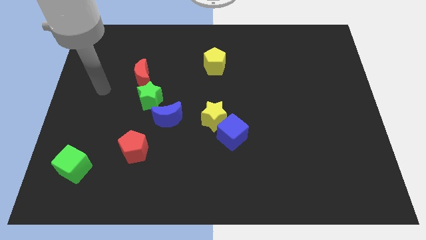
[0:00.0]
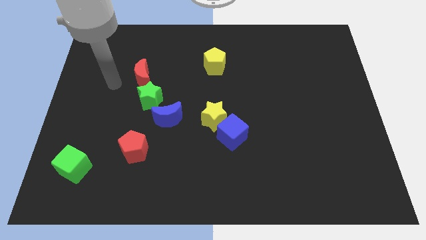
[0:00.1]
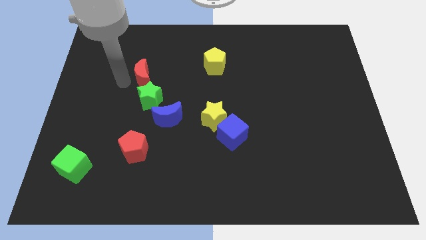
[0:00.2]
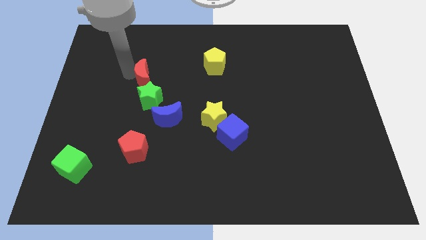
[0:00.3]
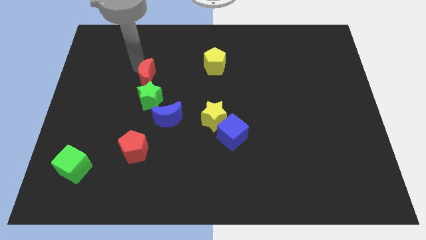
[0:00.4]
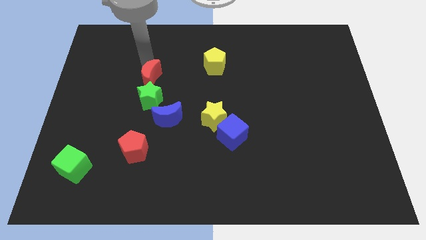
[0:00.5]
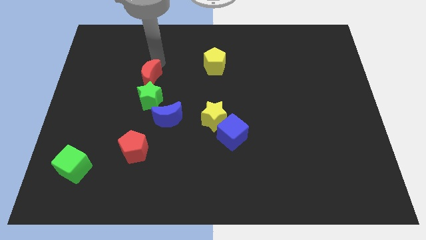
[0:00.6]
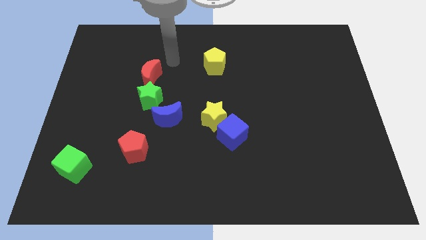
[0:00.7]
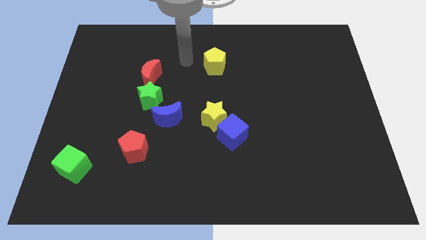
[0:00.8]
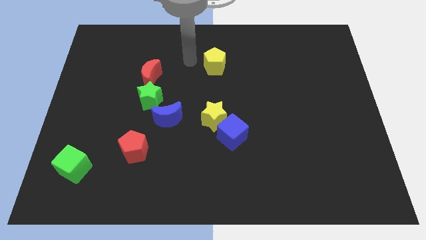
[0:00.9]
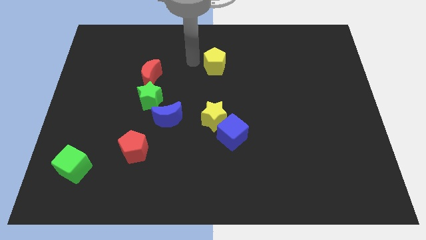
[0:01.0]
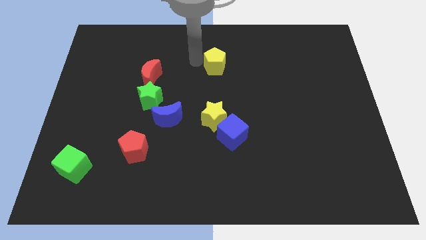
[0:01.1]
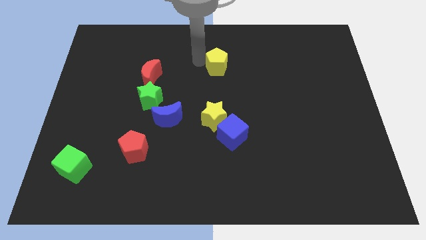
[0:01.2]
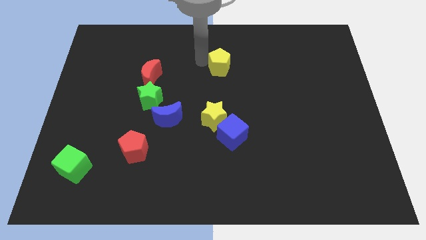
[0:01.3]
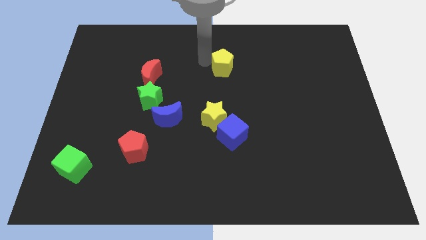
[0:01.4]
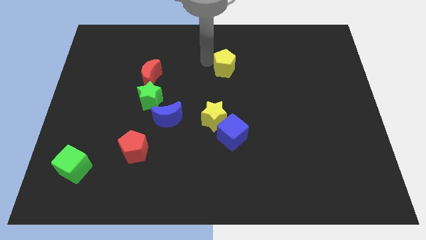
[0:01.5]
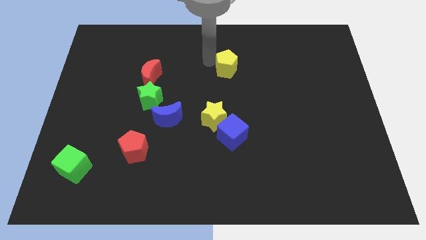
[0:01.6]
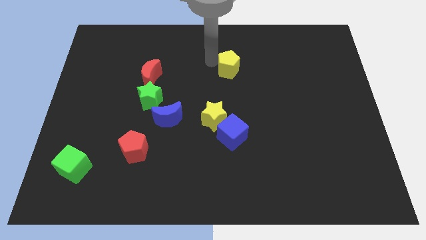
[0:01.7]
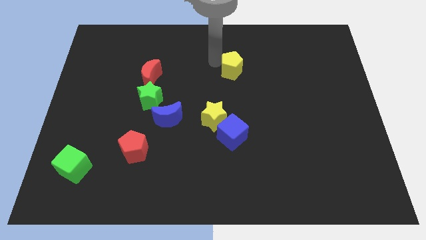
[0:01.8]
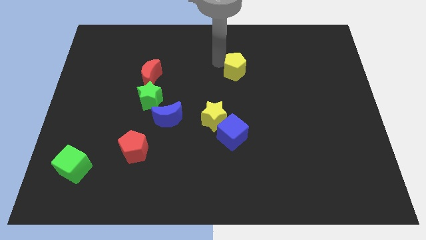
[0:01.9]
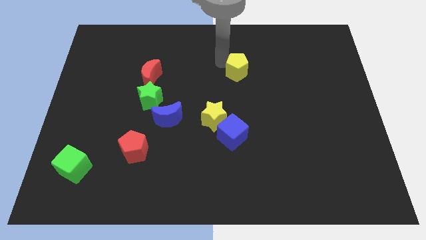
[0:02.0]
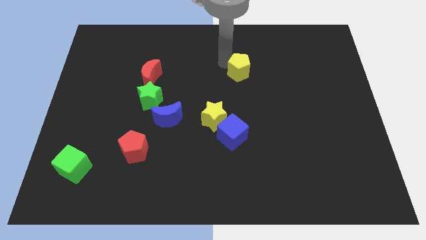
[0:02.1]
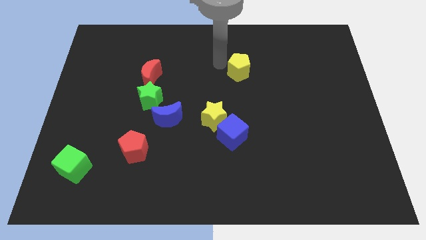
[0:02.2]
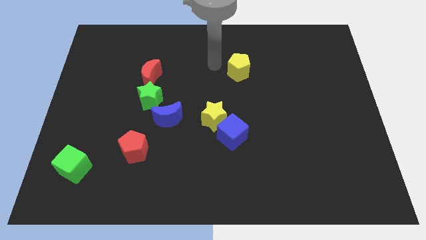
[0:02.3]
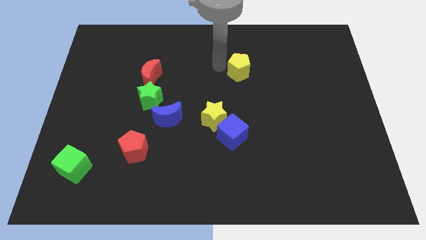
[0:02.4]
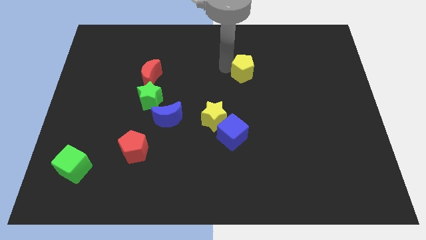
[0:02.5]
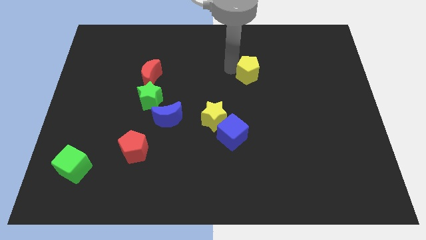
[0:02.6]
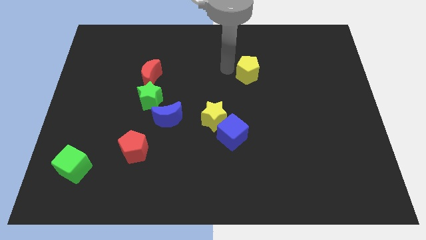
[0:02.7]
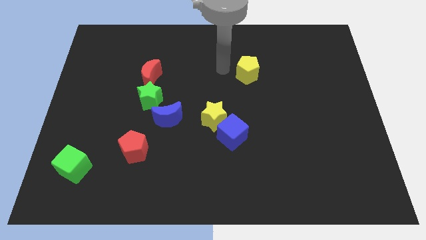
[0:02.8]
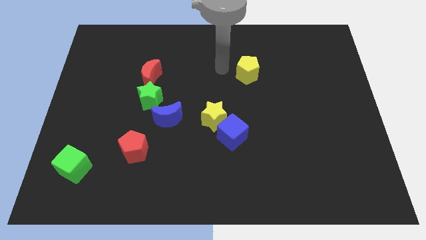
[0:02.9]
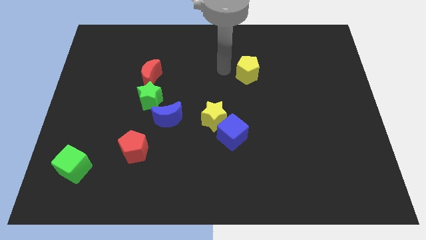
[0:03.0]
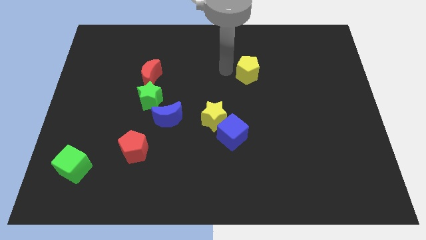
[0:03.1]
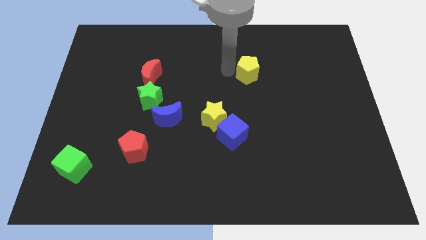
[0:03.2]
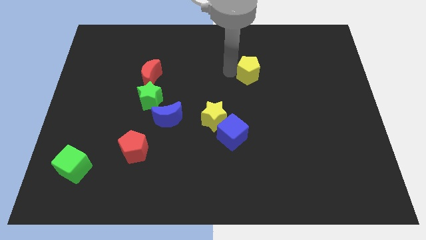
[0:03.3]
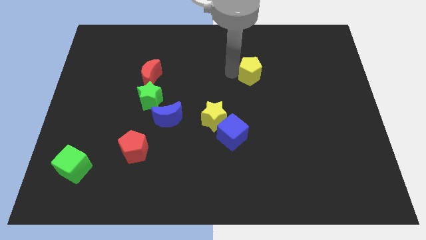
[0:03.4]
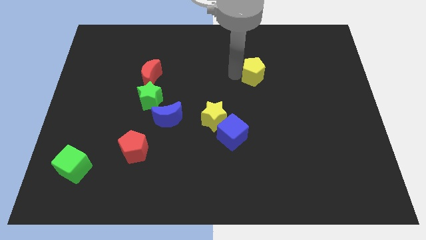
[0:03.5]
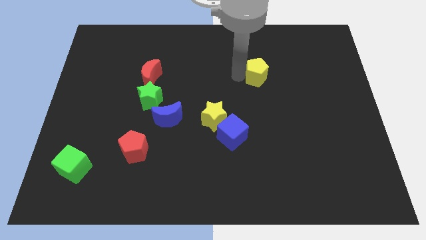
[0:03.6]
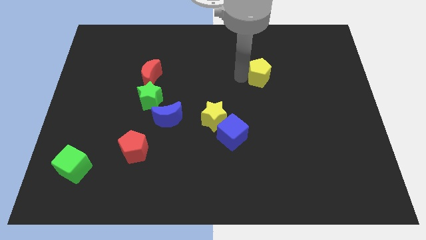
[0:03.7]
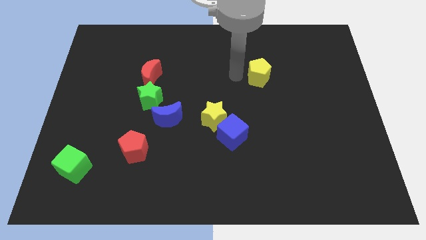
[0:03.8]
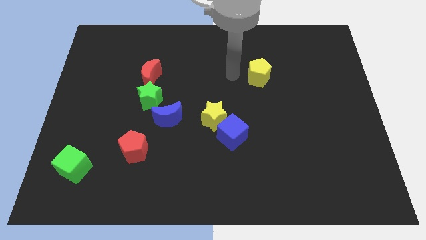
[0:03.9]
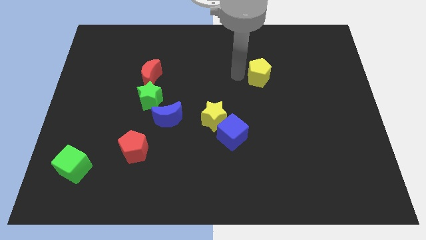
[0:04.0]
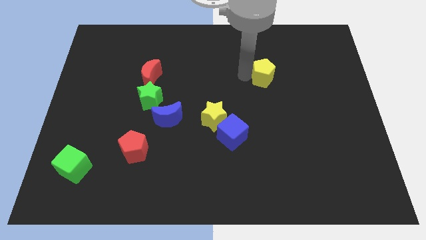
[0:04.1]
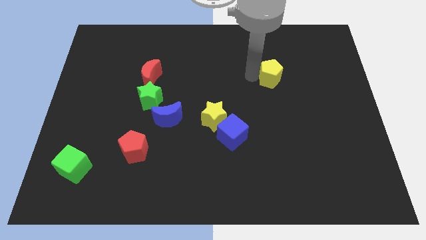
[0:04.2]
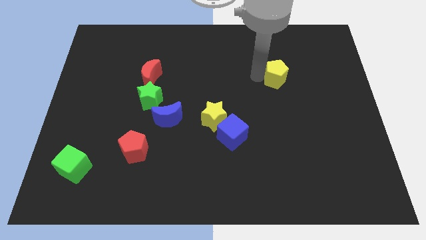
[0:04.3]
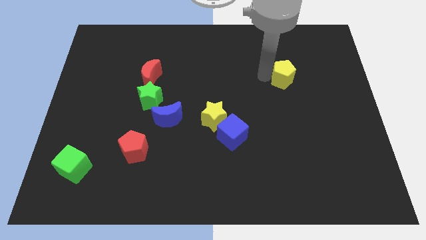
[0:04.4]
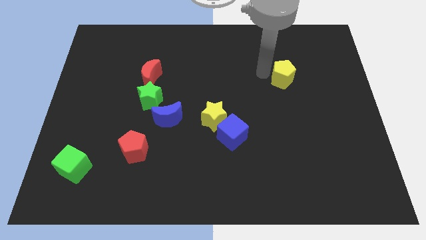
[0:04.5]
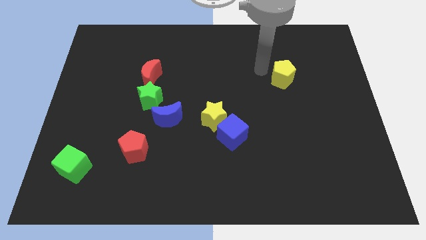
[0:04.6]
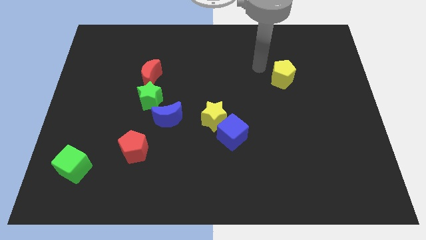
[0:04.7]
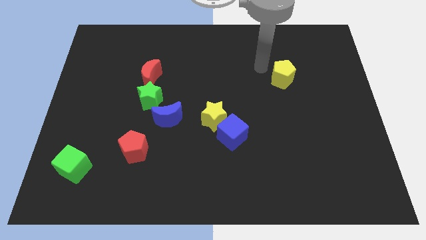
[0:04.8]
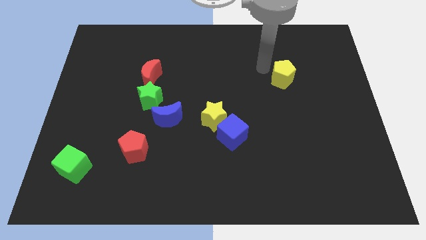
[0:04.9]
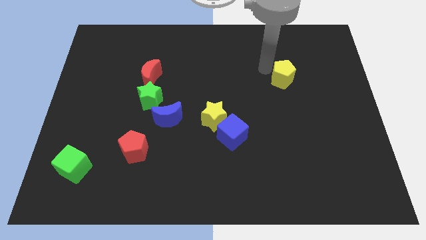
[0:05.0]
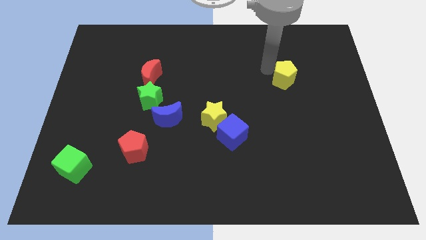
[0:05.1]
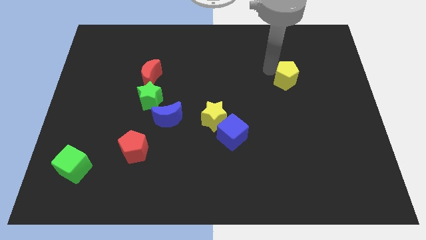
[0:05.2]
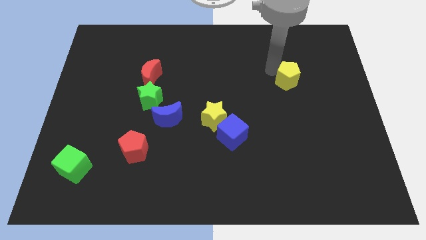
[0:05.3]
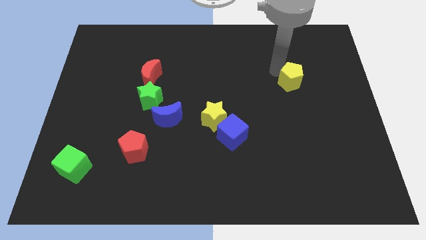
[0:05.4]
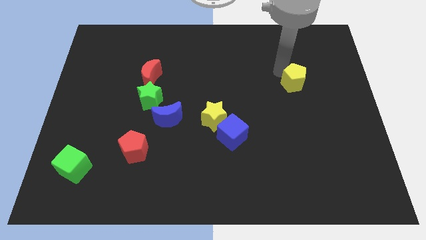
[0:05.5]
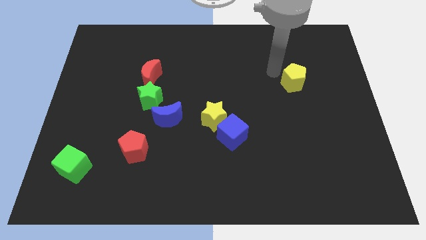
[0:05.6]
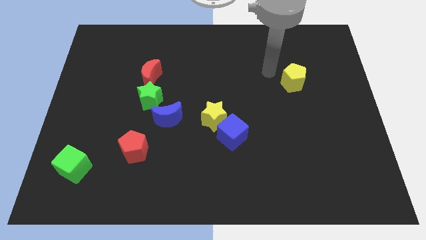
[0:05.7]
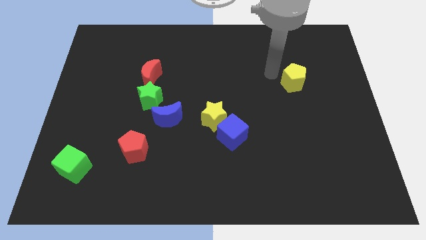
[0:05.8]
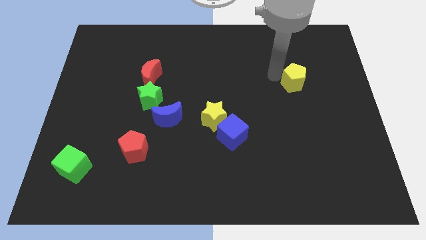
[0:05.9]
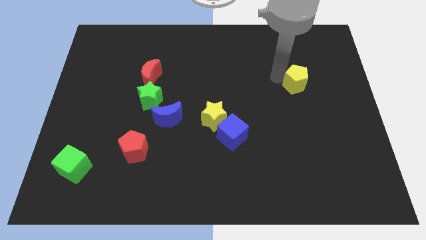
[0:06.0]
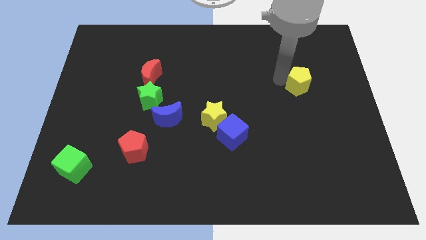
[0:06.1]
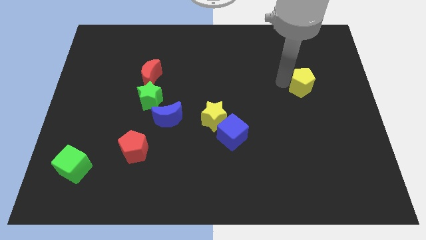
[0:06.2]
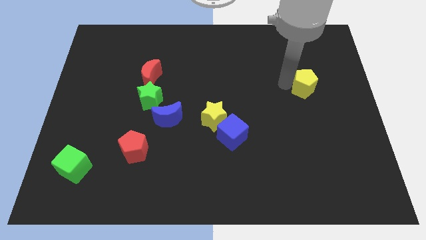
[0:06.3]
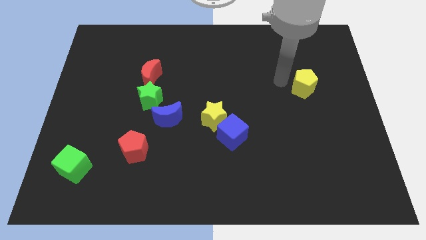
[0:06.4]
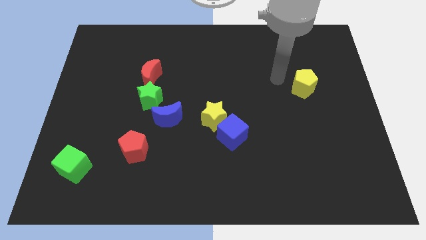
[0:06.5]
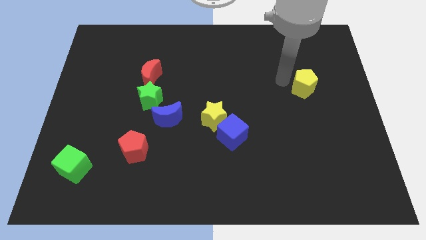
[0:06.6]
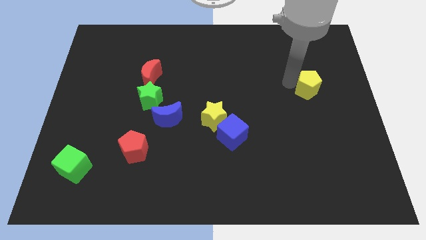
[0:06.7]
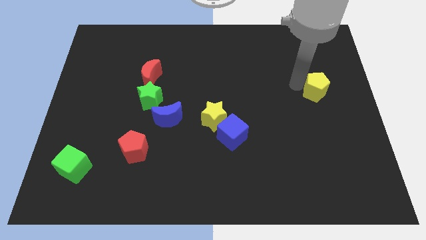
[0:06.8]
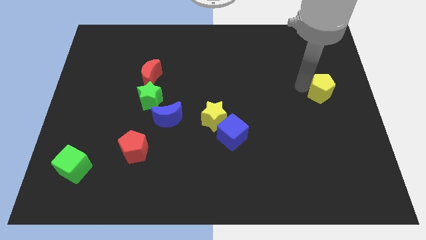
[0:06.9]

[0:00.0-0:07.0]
push the yellow pentagon to the center right
